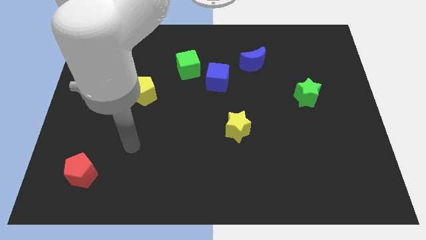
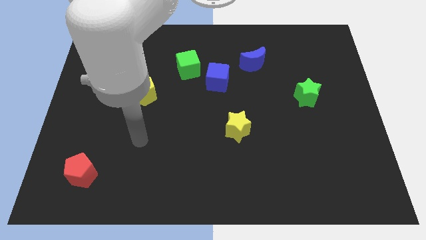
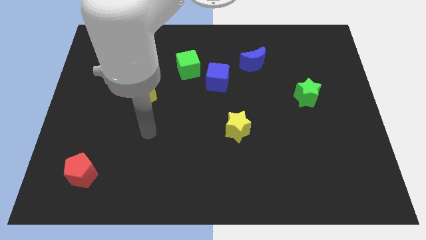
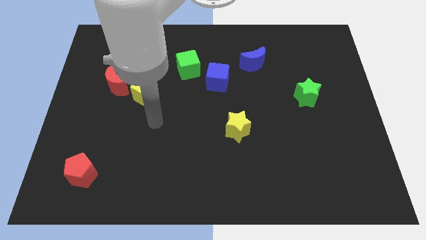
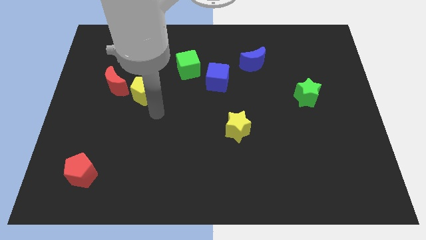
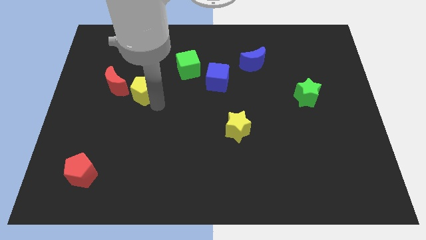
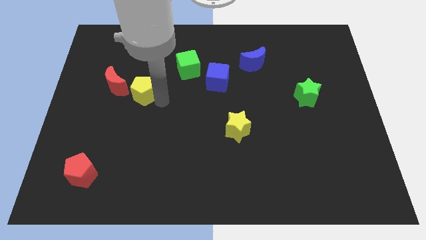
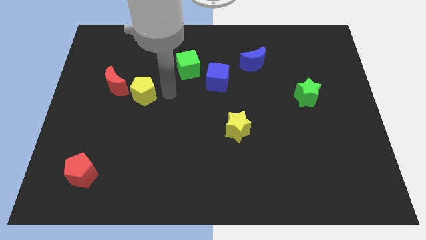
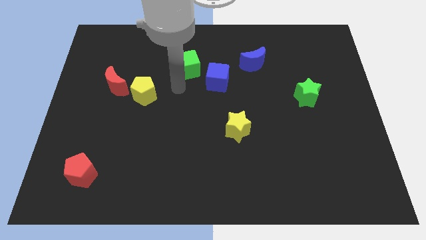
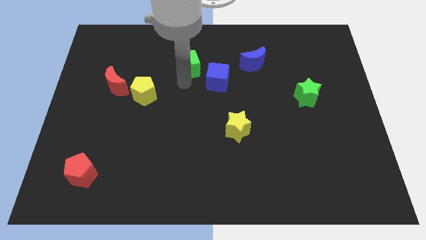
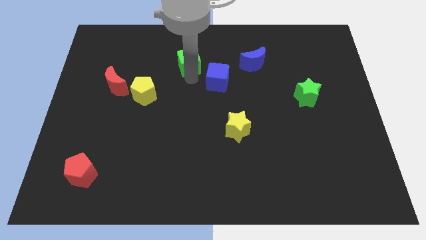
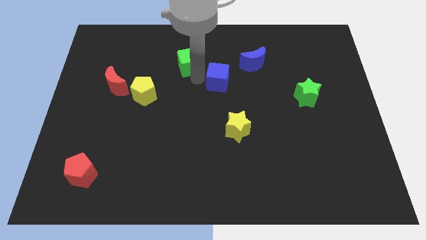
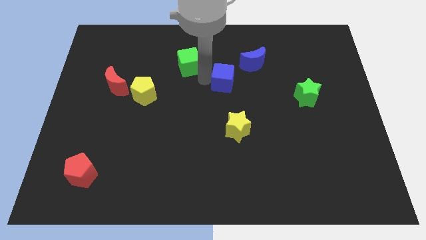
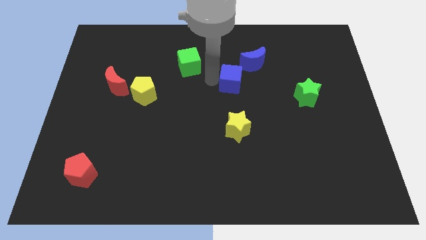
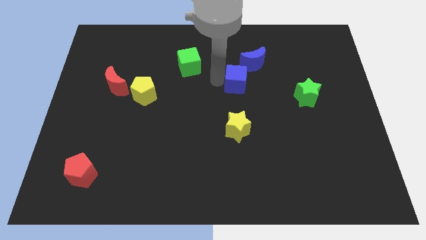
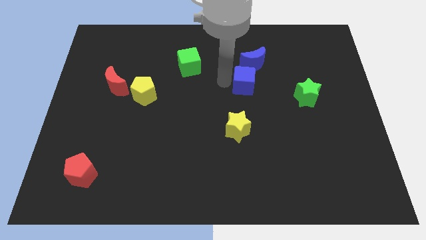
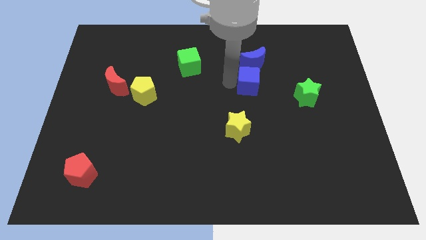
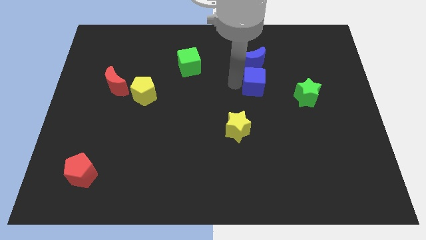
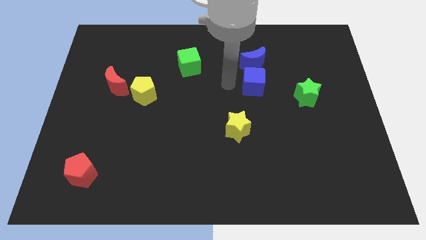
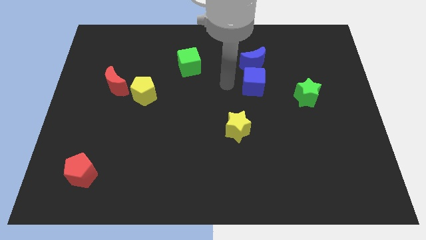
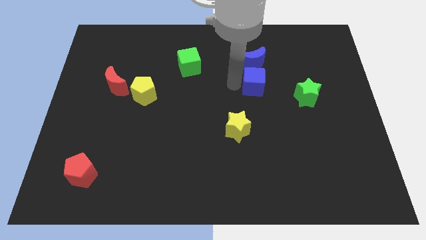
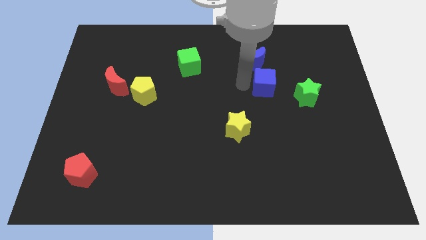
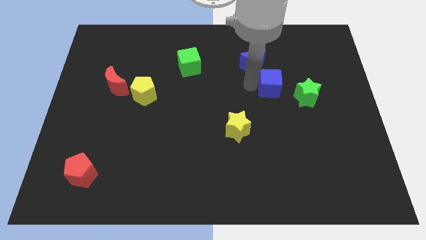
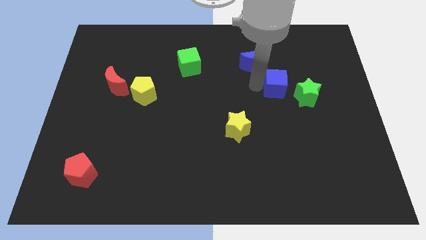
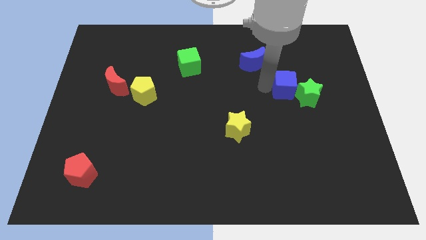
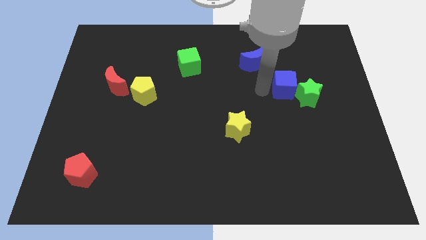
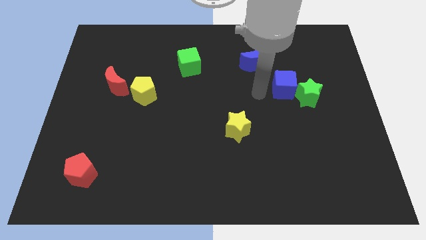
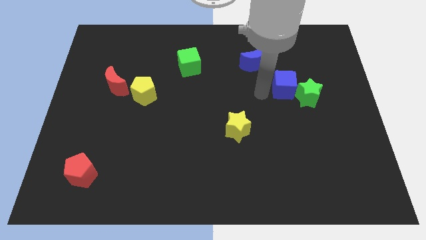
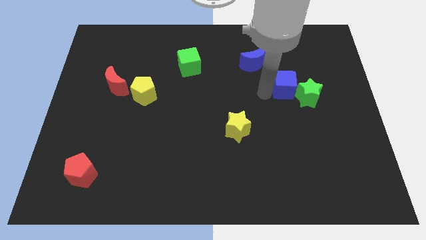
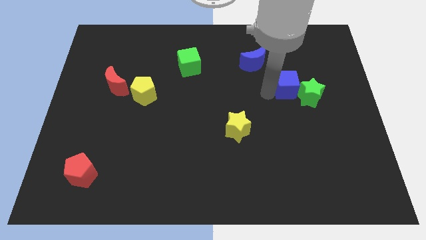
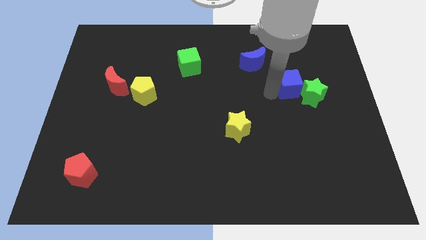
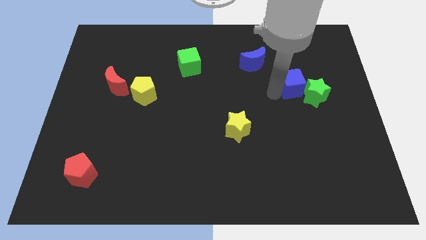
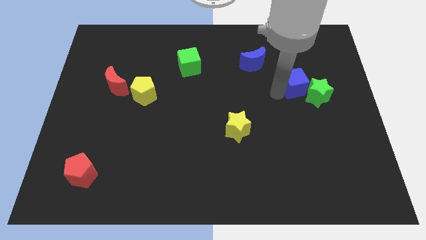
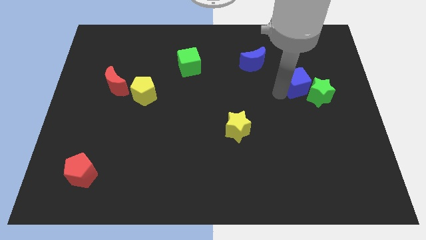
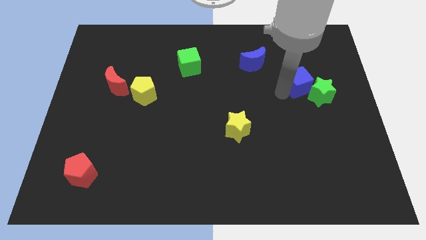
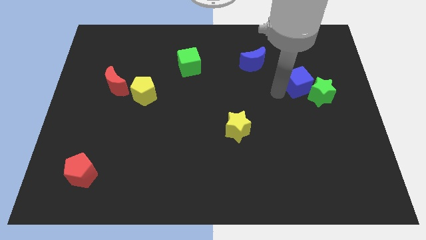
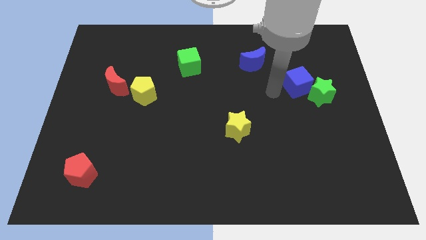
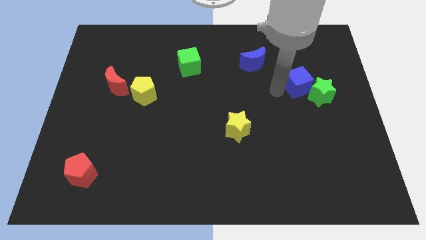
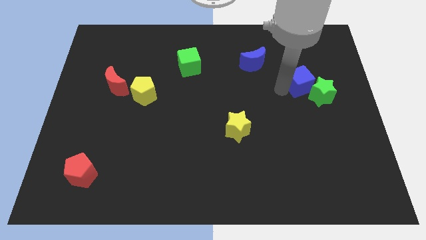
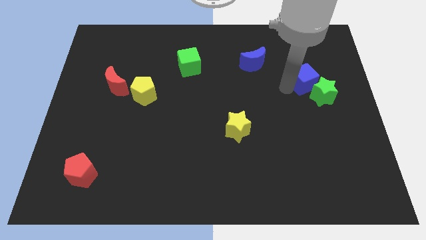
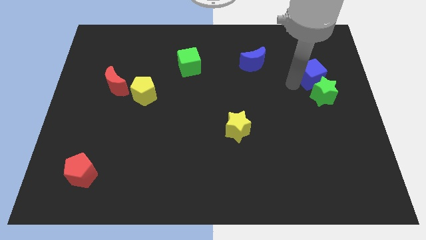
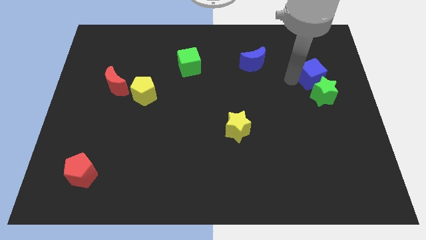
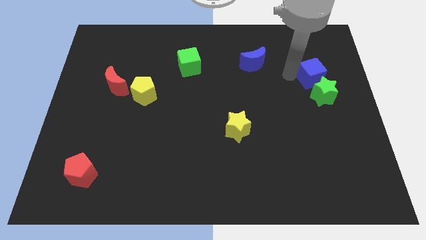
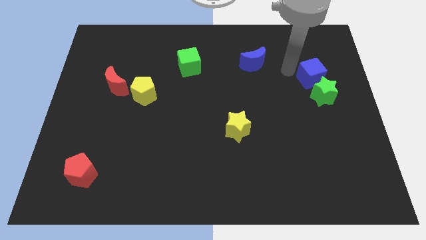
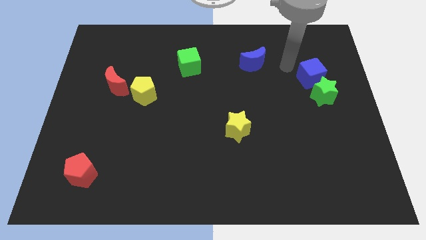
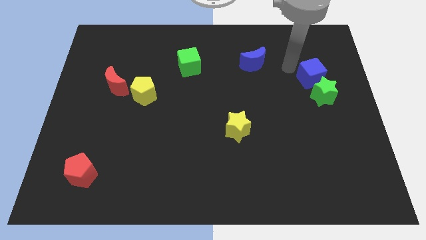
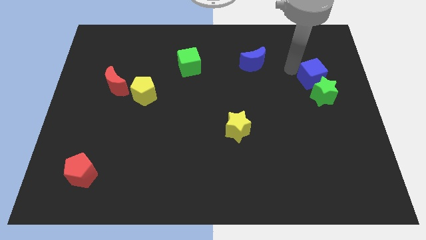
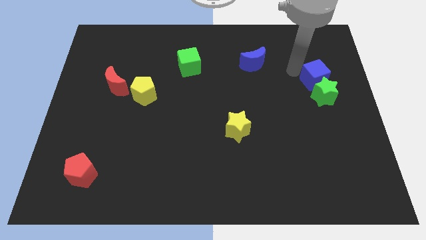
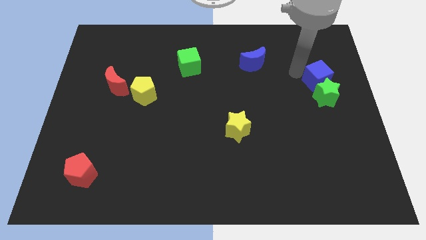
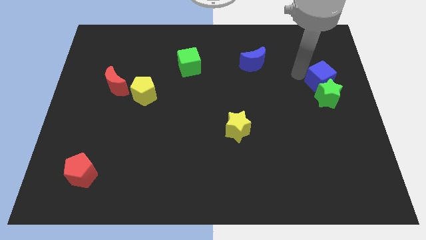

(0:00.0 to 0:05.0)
move the blue cube to the center right
